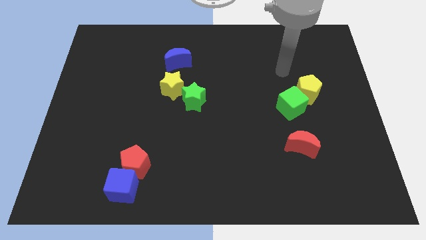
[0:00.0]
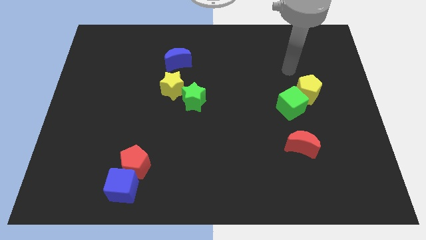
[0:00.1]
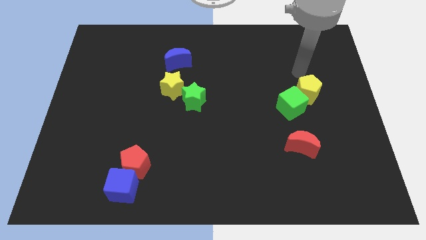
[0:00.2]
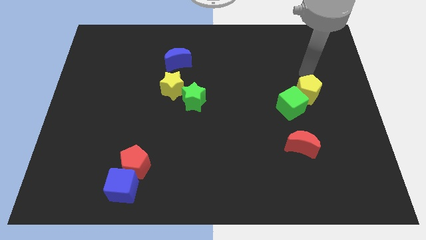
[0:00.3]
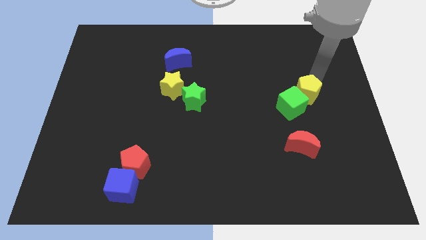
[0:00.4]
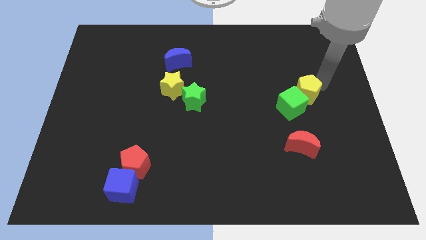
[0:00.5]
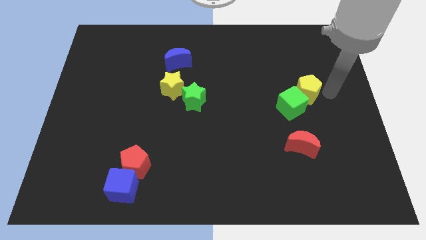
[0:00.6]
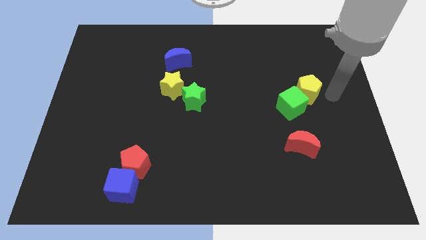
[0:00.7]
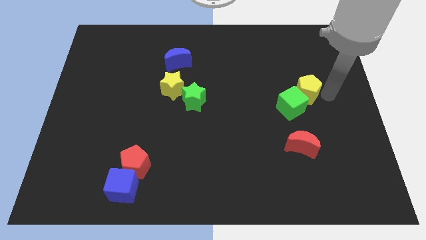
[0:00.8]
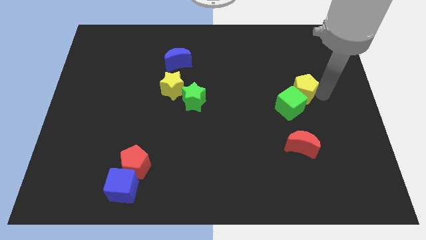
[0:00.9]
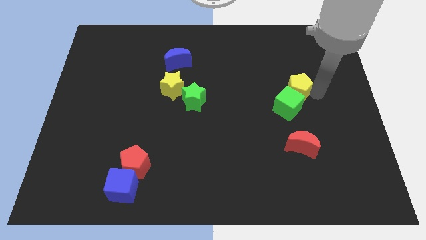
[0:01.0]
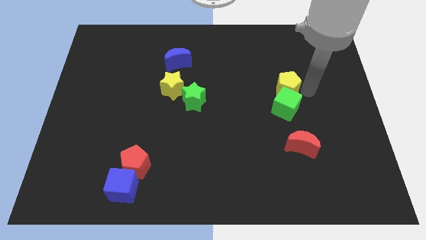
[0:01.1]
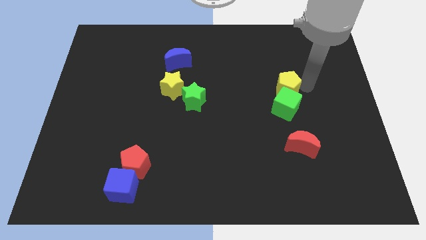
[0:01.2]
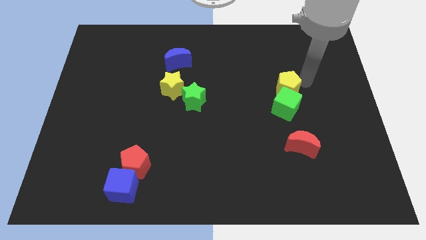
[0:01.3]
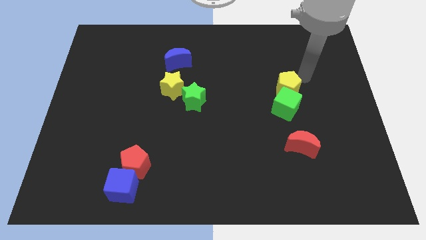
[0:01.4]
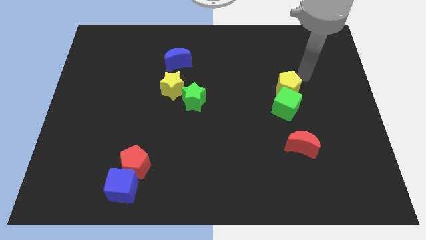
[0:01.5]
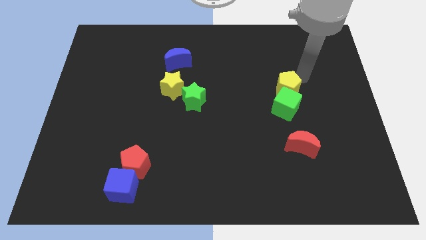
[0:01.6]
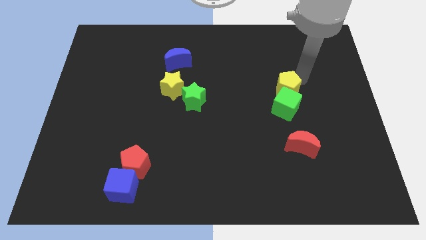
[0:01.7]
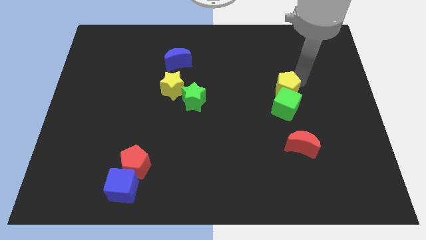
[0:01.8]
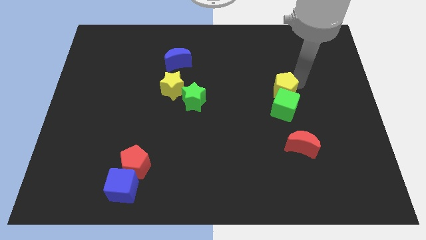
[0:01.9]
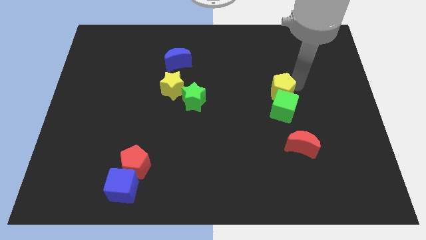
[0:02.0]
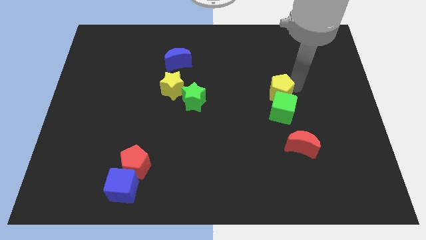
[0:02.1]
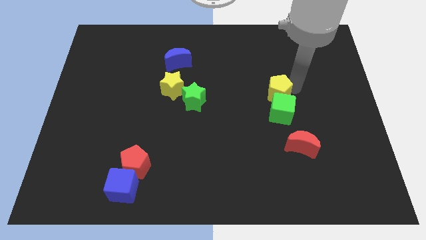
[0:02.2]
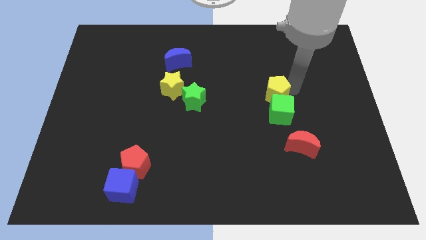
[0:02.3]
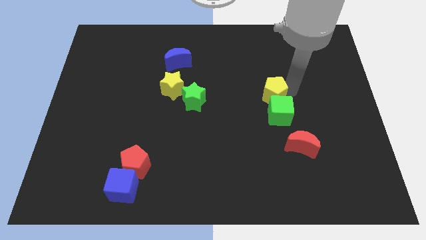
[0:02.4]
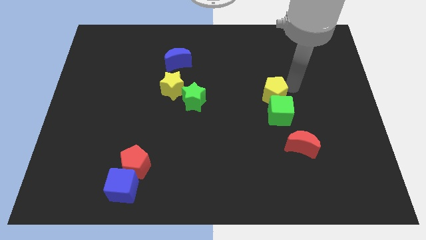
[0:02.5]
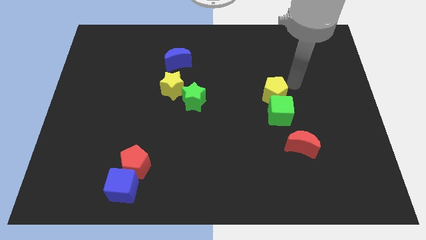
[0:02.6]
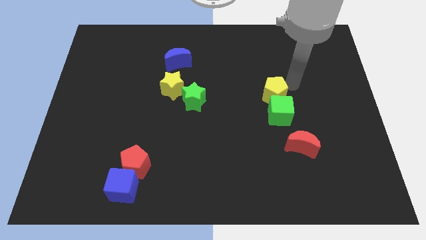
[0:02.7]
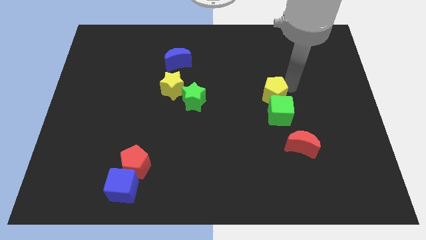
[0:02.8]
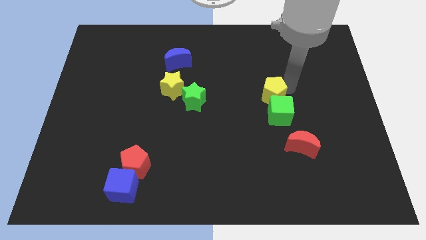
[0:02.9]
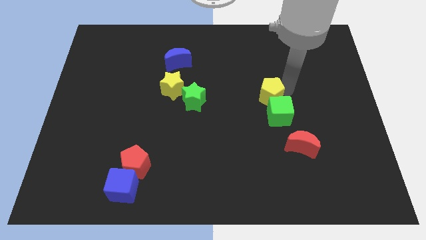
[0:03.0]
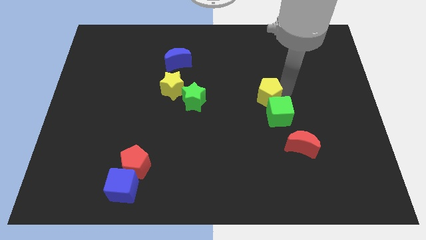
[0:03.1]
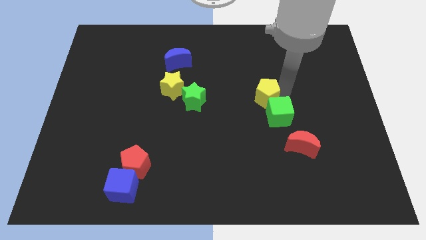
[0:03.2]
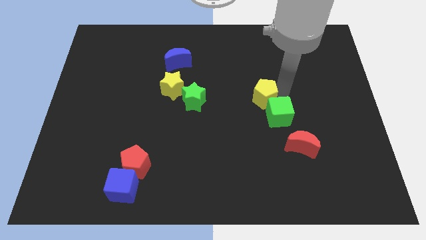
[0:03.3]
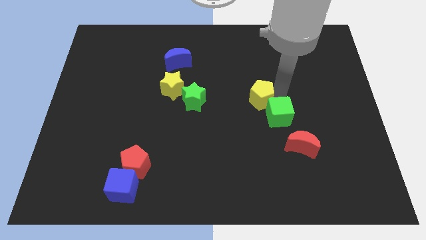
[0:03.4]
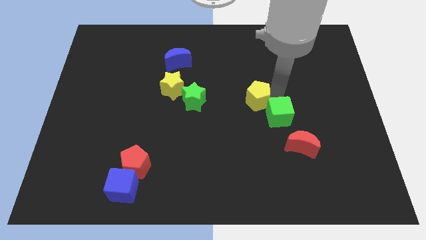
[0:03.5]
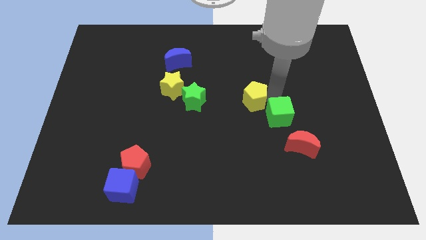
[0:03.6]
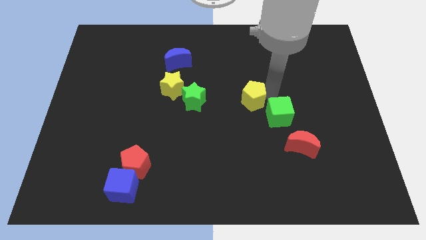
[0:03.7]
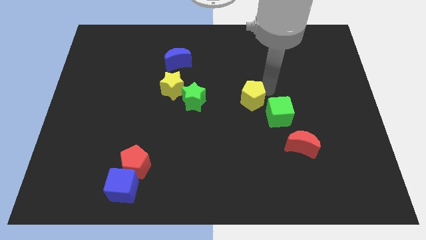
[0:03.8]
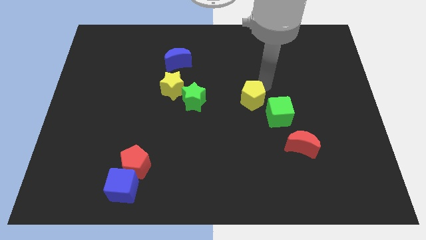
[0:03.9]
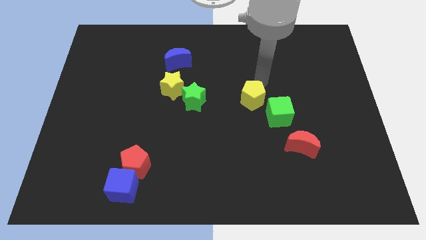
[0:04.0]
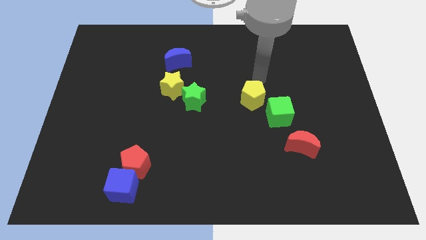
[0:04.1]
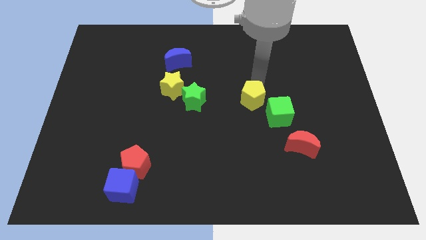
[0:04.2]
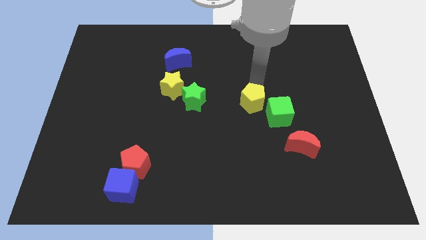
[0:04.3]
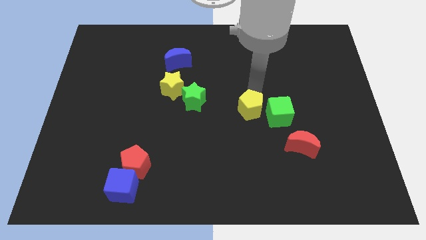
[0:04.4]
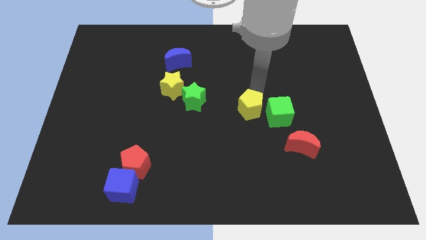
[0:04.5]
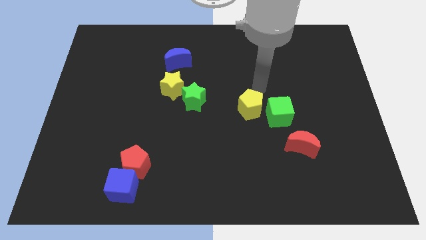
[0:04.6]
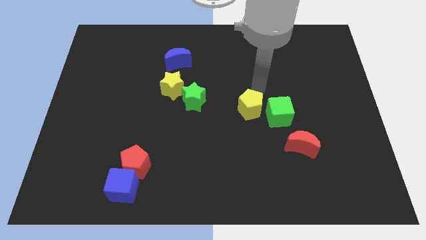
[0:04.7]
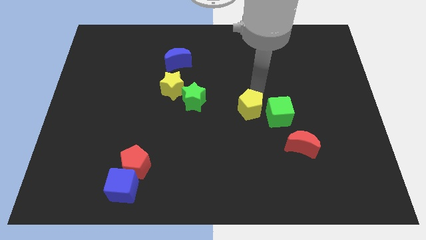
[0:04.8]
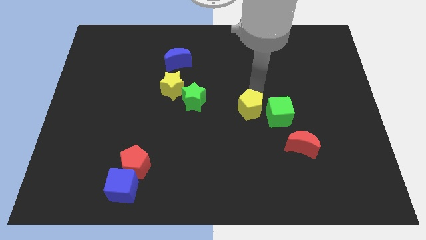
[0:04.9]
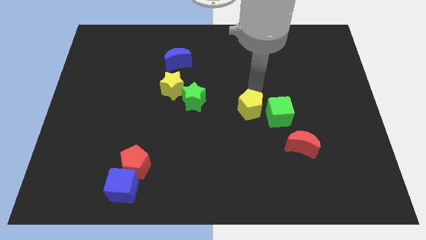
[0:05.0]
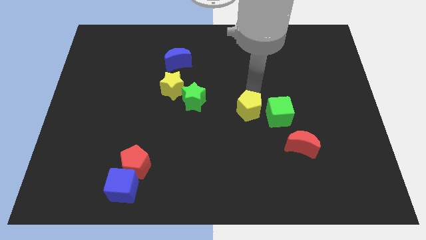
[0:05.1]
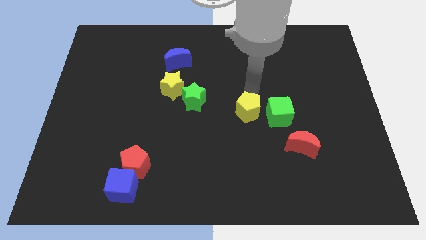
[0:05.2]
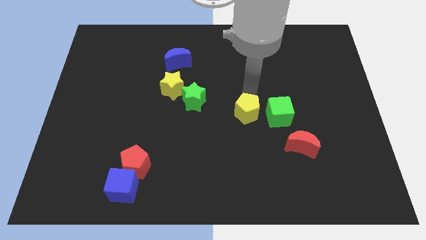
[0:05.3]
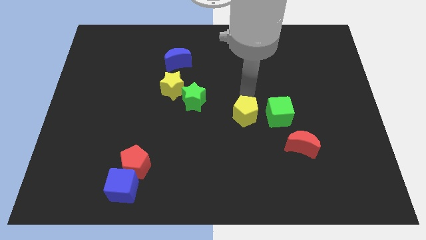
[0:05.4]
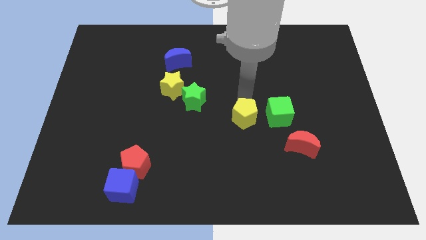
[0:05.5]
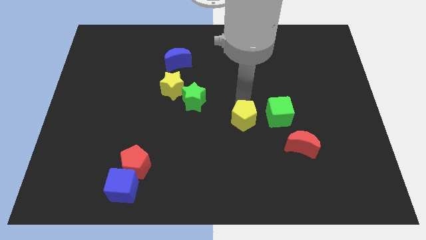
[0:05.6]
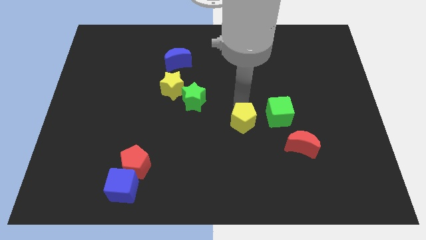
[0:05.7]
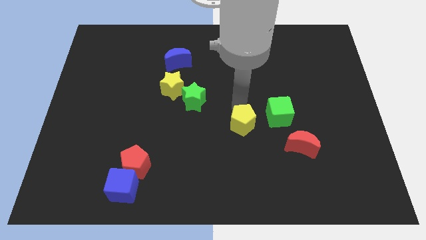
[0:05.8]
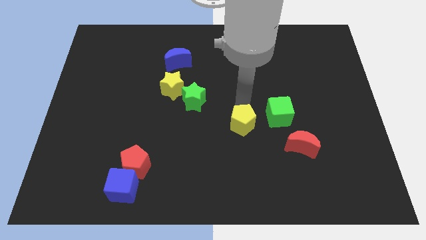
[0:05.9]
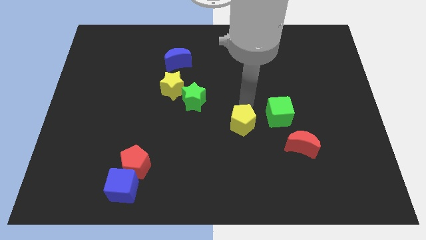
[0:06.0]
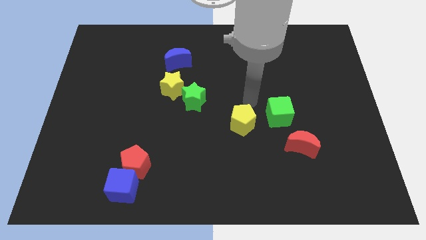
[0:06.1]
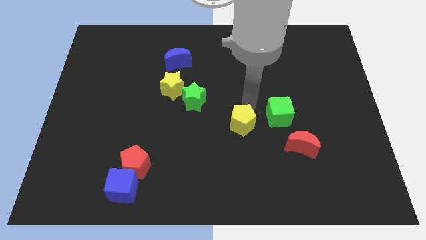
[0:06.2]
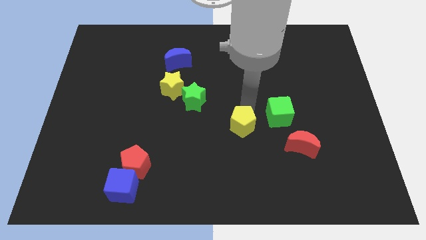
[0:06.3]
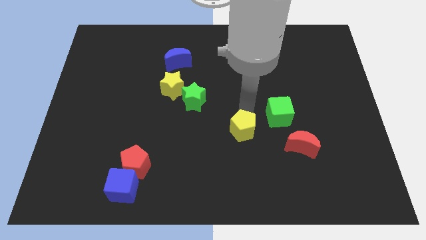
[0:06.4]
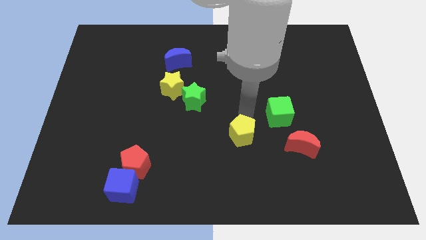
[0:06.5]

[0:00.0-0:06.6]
slide the yellow pentagon downwards and left

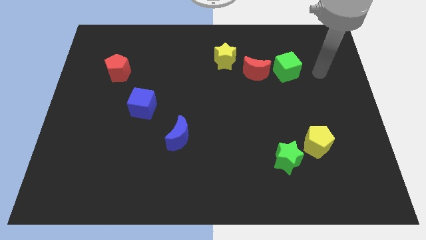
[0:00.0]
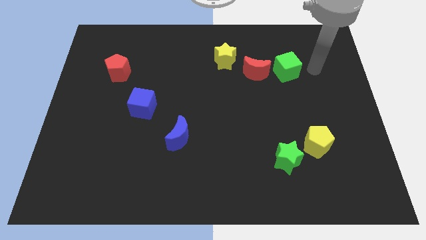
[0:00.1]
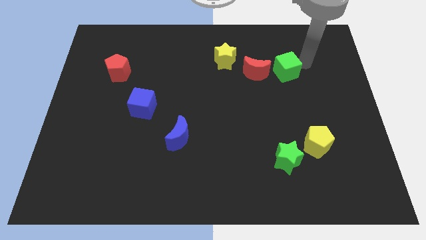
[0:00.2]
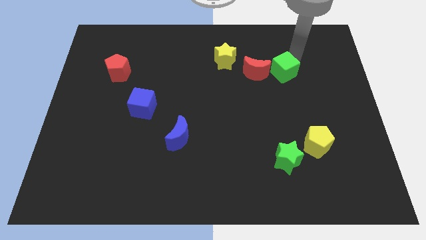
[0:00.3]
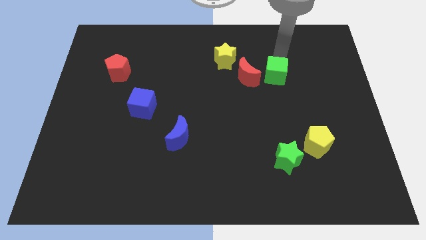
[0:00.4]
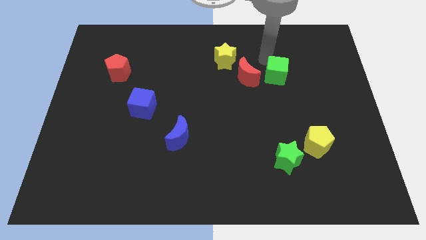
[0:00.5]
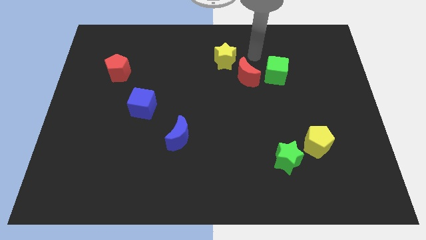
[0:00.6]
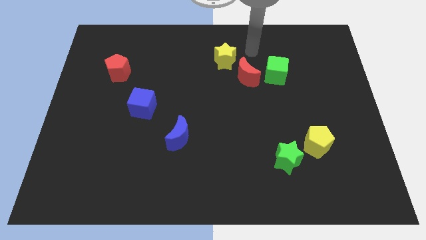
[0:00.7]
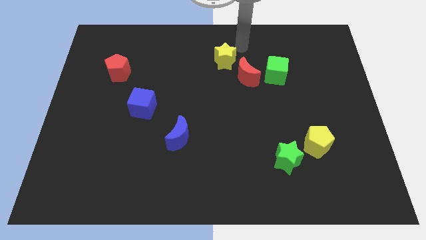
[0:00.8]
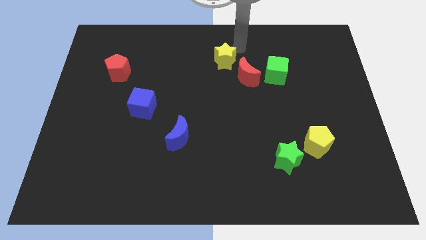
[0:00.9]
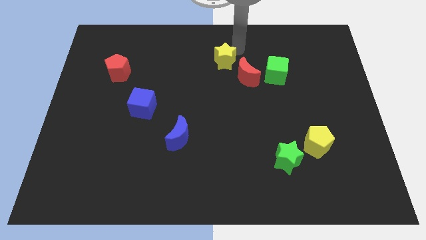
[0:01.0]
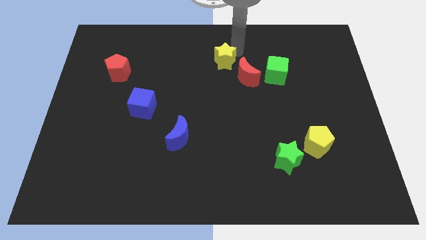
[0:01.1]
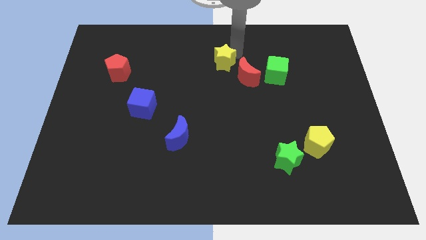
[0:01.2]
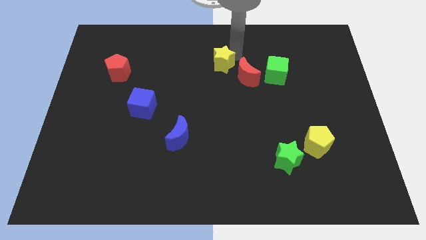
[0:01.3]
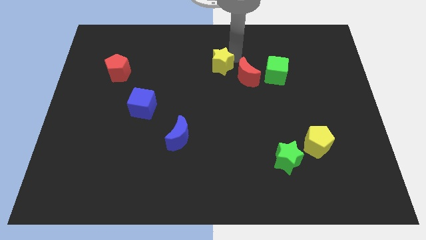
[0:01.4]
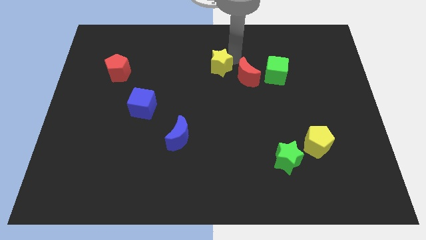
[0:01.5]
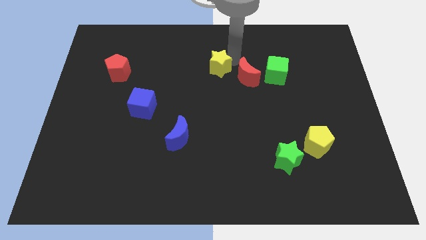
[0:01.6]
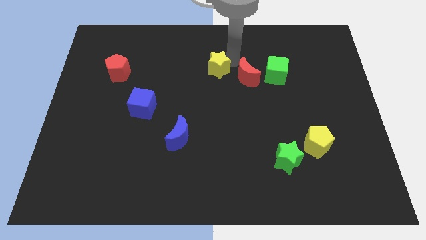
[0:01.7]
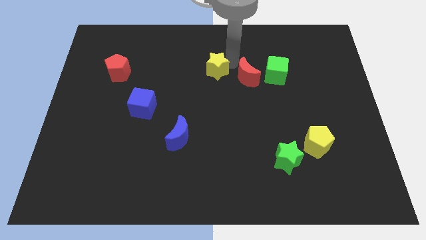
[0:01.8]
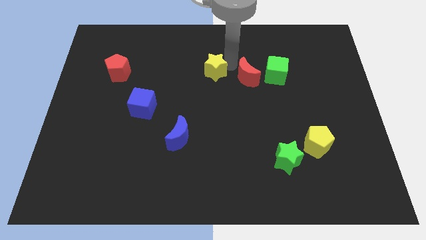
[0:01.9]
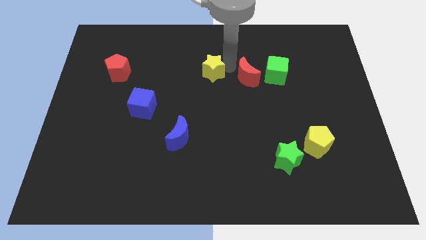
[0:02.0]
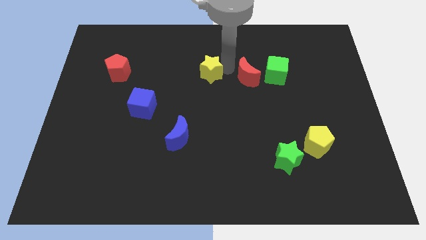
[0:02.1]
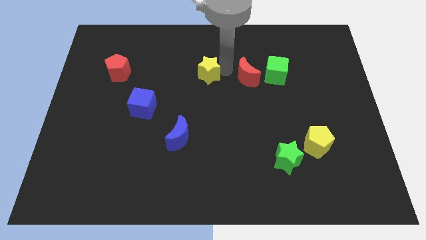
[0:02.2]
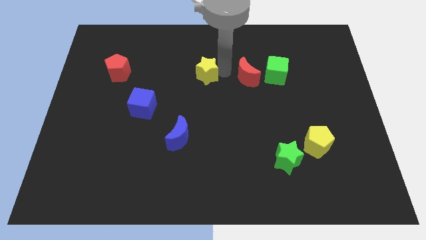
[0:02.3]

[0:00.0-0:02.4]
move the yellow star downwards and to the left a little
